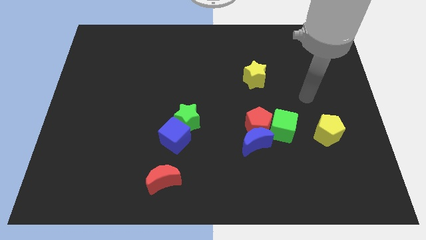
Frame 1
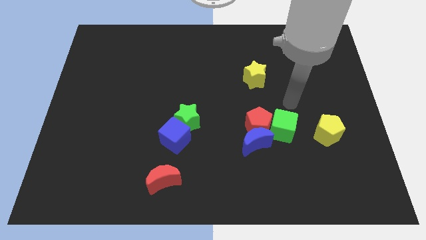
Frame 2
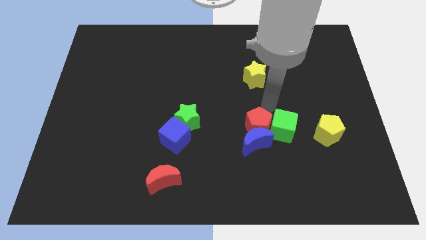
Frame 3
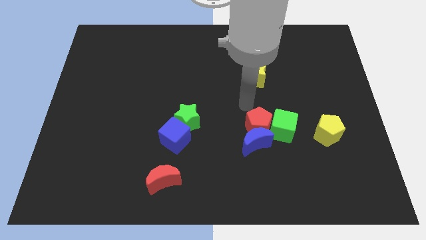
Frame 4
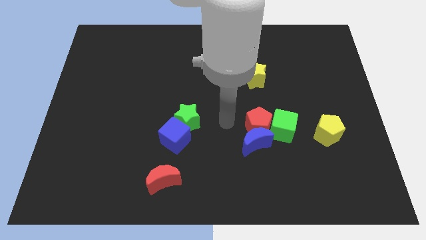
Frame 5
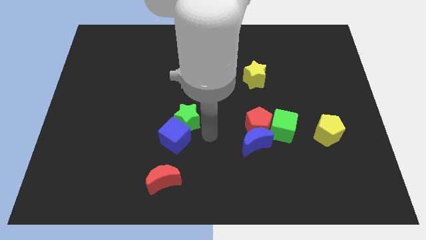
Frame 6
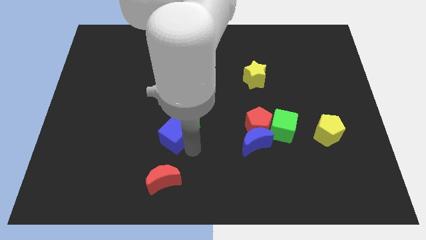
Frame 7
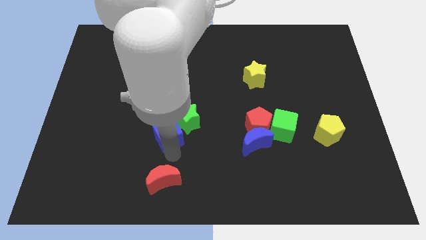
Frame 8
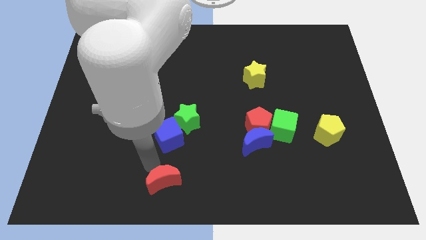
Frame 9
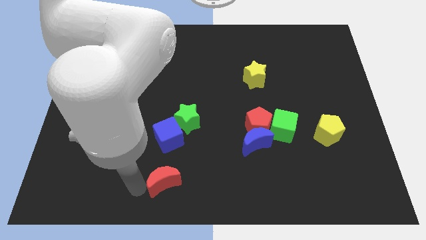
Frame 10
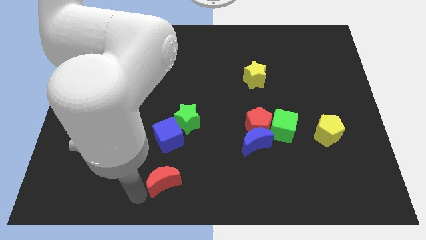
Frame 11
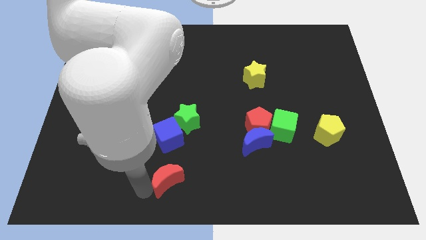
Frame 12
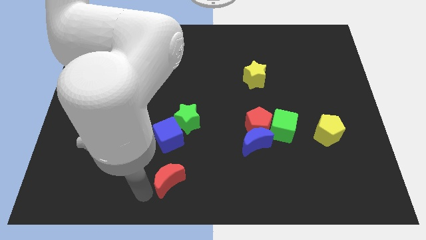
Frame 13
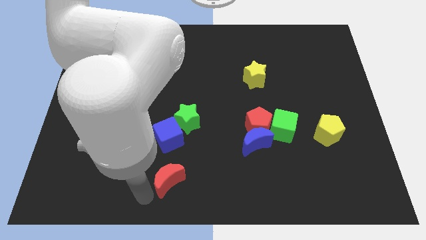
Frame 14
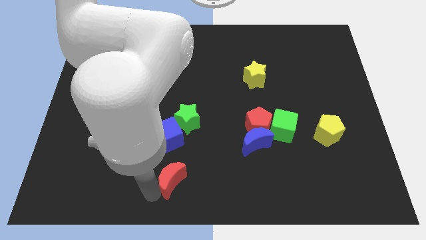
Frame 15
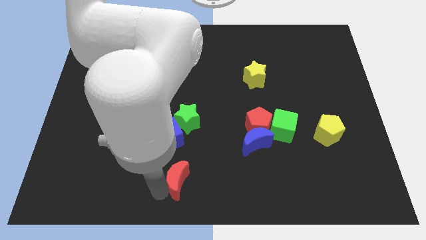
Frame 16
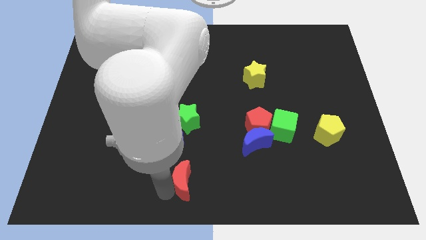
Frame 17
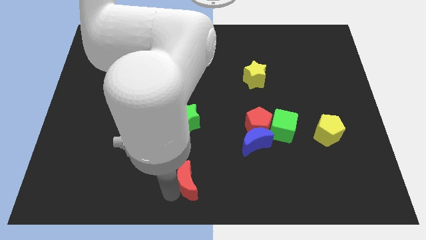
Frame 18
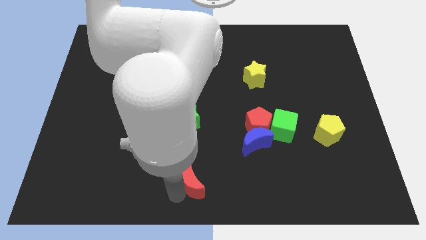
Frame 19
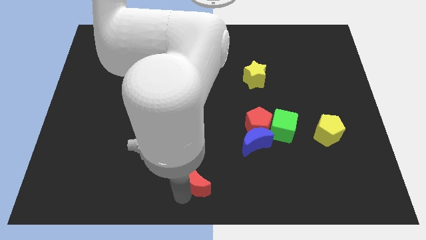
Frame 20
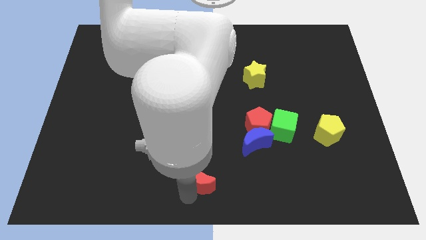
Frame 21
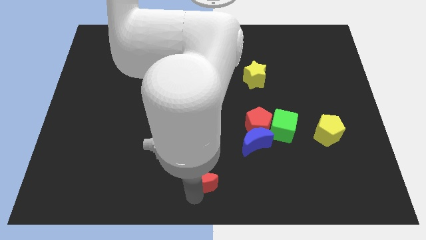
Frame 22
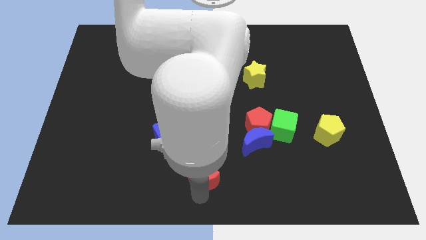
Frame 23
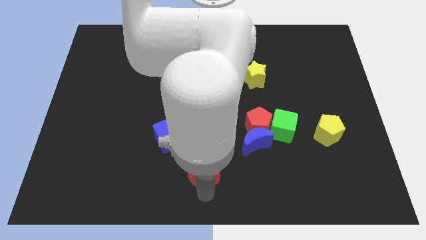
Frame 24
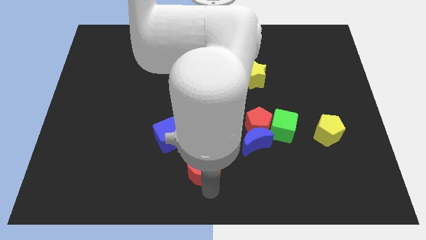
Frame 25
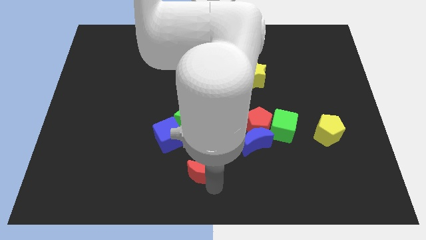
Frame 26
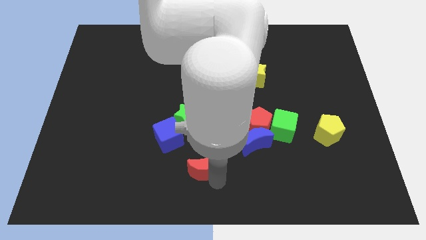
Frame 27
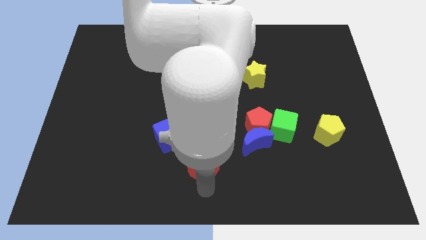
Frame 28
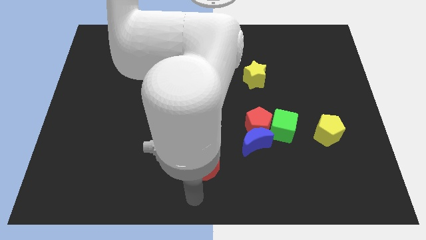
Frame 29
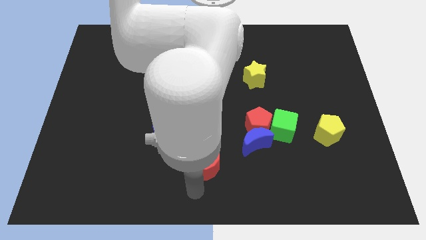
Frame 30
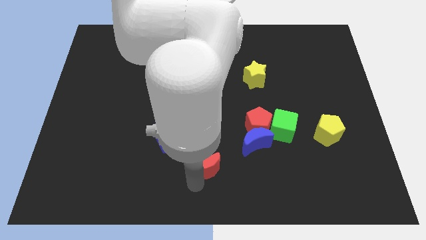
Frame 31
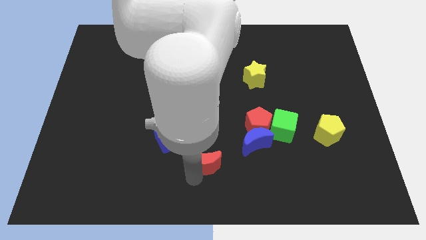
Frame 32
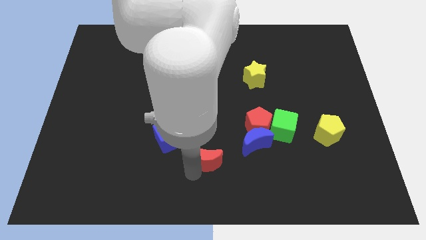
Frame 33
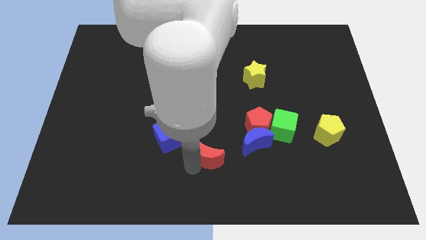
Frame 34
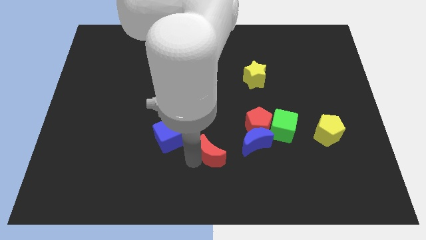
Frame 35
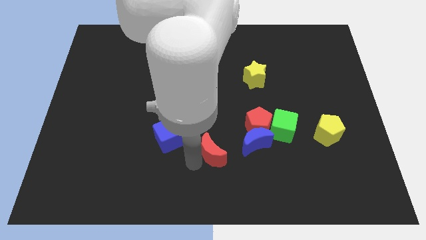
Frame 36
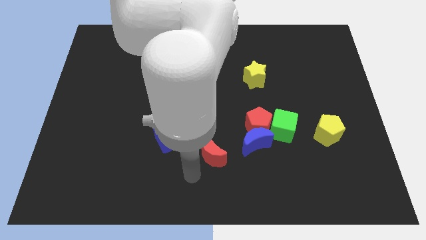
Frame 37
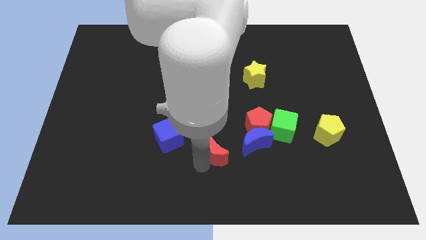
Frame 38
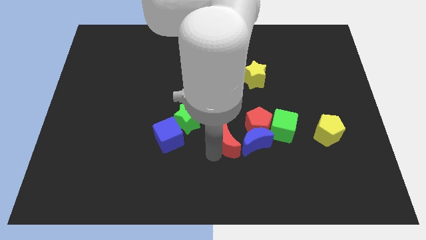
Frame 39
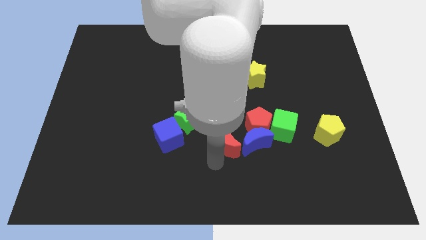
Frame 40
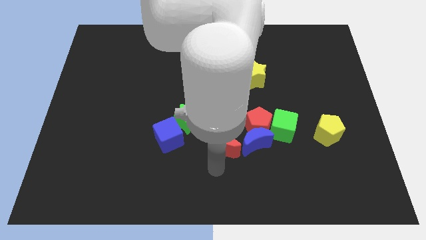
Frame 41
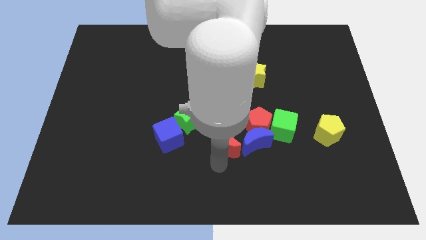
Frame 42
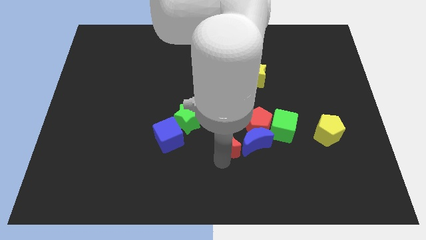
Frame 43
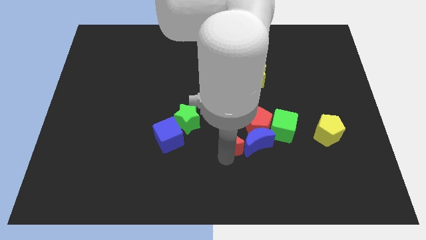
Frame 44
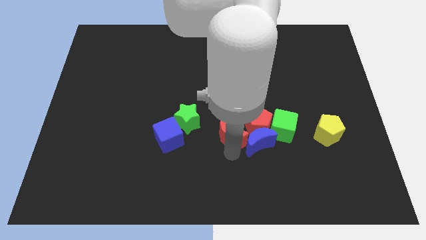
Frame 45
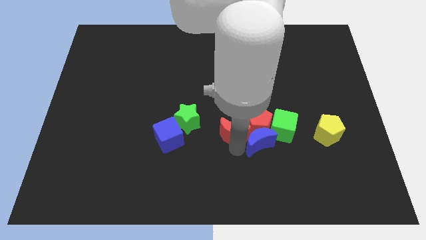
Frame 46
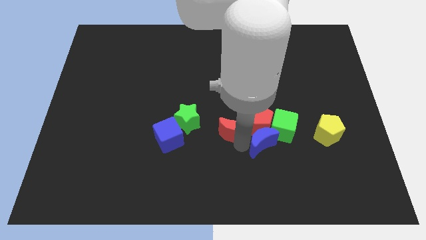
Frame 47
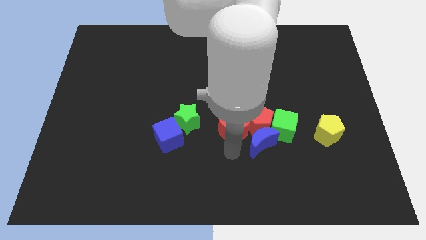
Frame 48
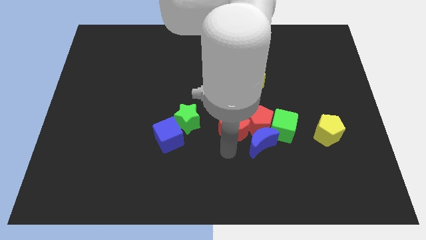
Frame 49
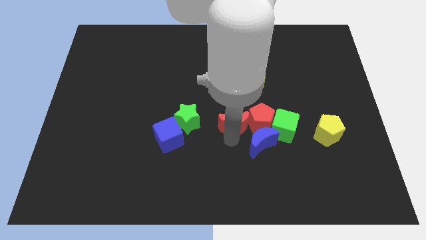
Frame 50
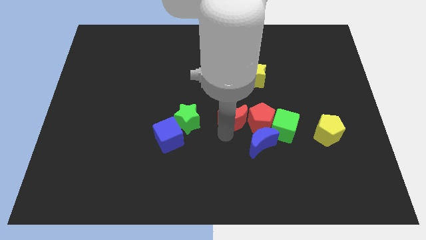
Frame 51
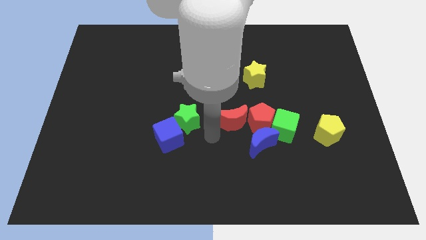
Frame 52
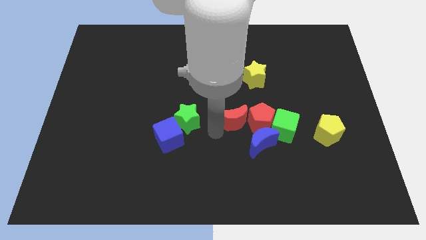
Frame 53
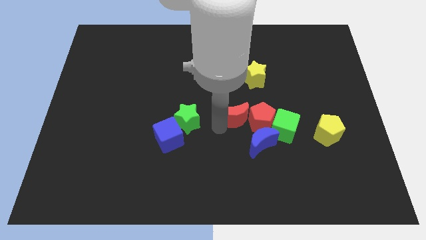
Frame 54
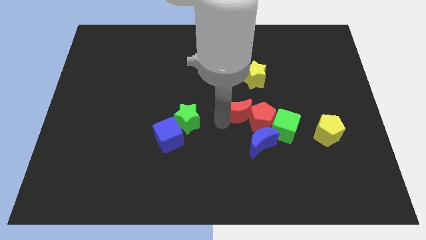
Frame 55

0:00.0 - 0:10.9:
put the red moon above the blue moon

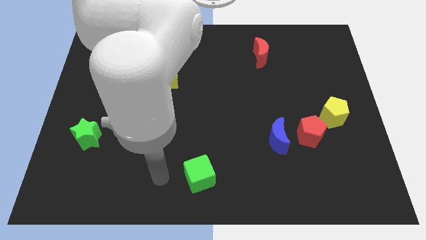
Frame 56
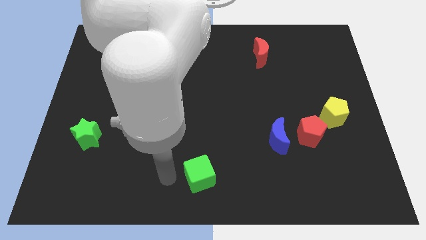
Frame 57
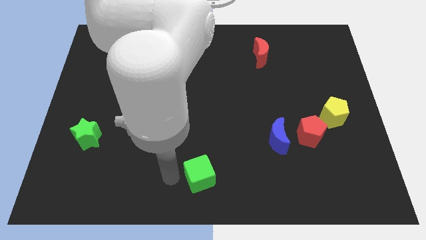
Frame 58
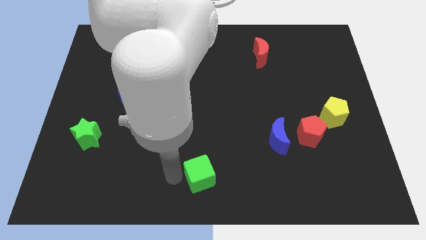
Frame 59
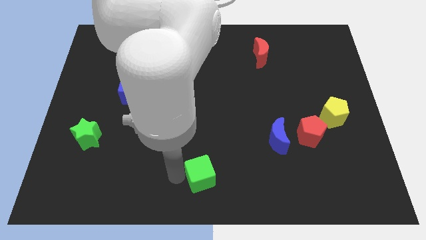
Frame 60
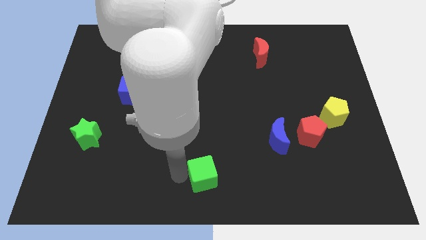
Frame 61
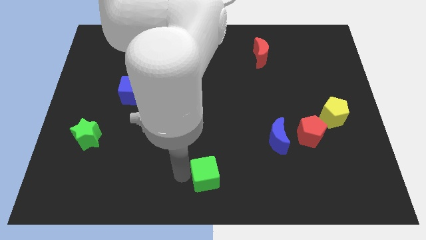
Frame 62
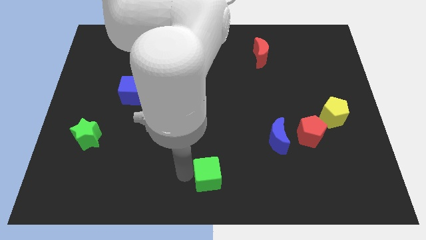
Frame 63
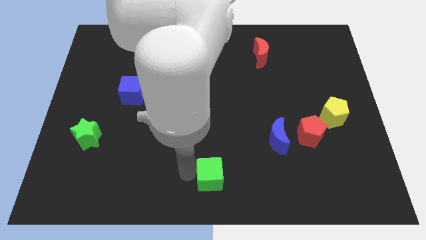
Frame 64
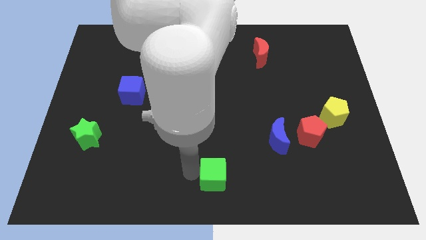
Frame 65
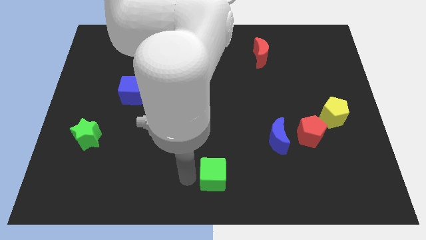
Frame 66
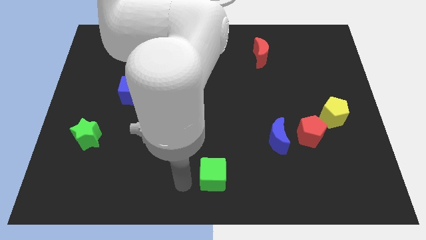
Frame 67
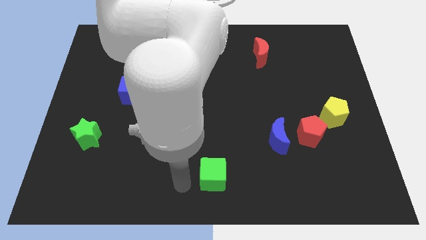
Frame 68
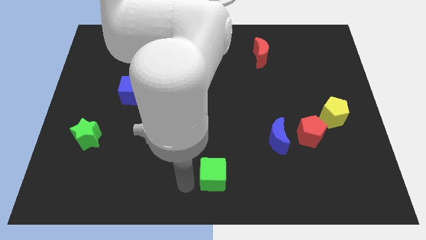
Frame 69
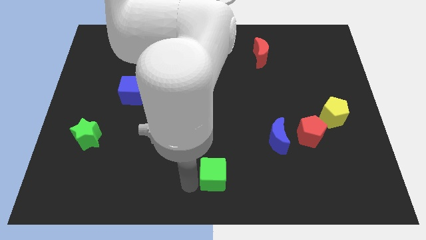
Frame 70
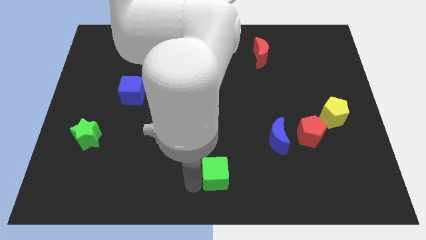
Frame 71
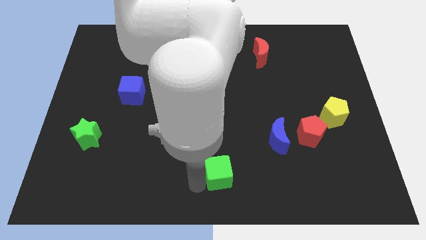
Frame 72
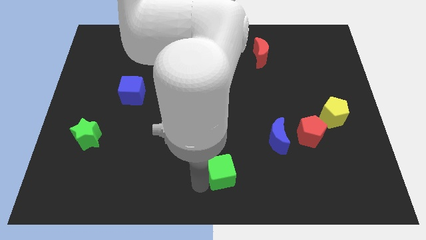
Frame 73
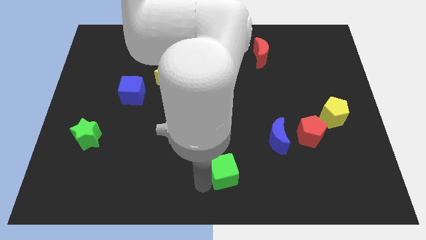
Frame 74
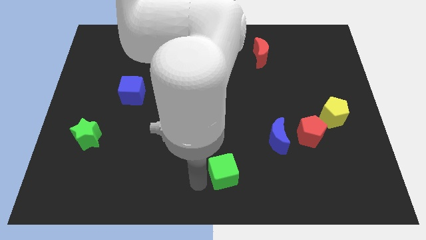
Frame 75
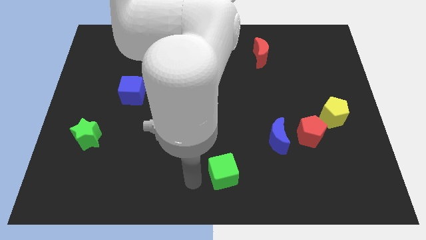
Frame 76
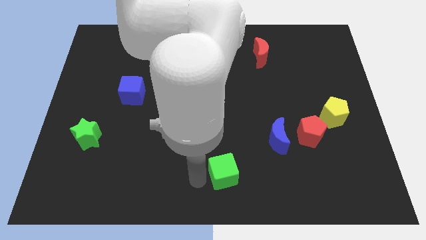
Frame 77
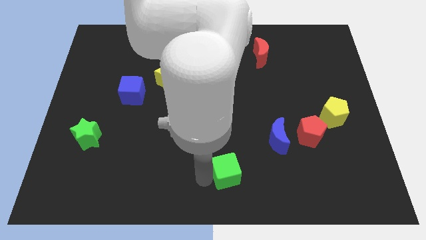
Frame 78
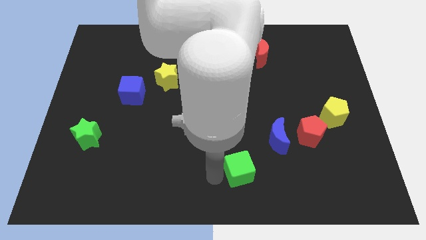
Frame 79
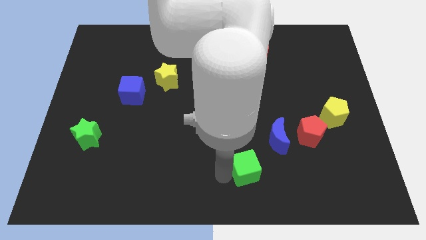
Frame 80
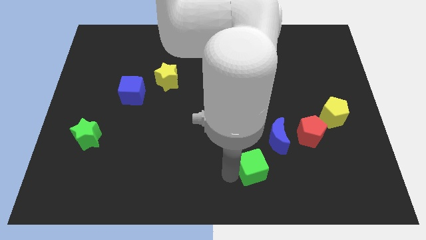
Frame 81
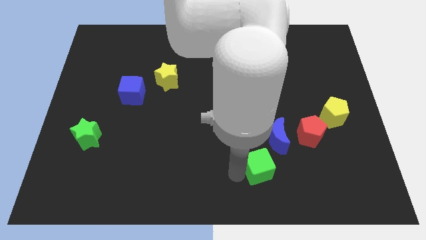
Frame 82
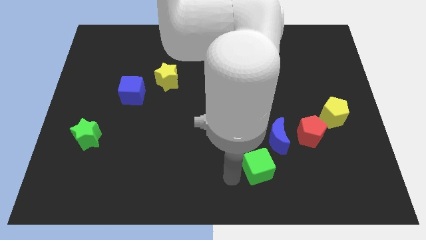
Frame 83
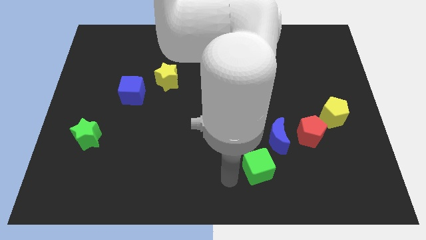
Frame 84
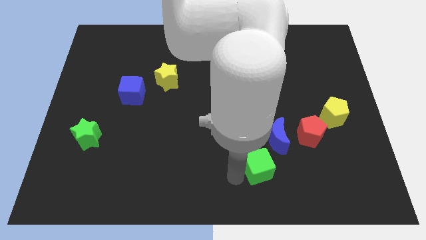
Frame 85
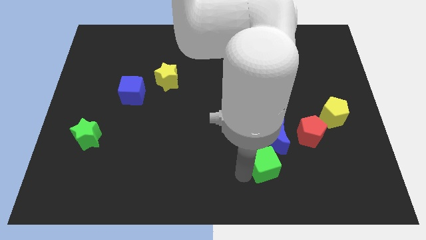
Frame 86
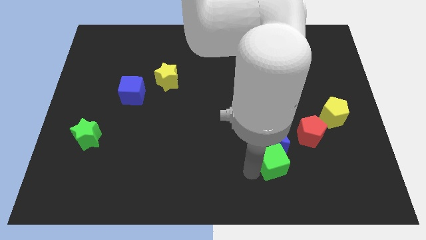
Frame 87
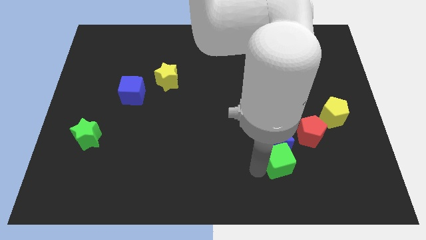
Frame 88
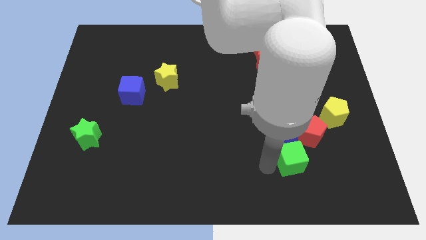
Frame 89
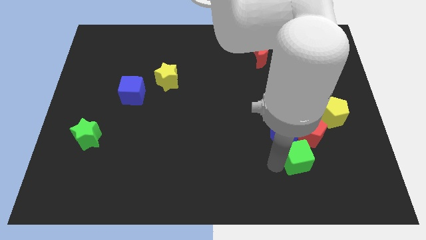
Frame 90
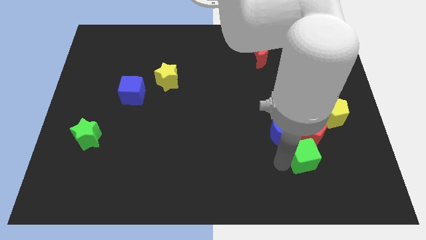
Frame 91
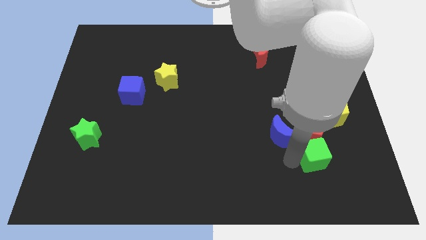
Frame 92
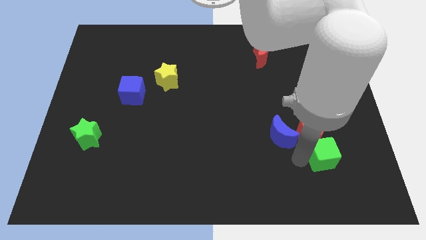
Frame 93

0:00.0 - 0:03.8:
slide the green cube to the bottom of the yellow pentagon
